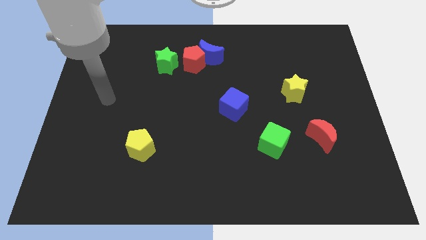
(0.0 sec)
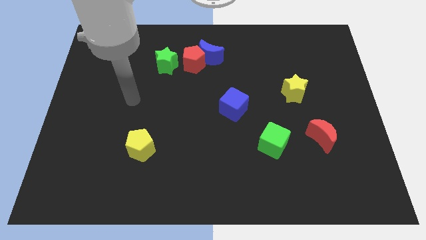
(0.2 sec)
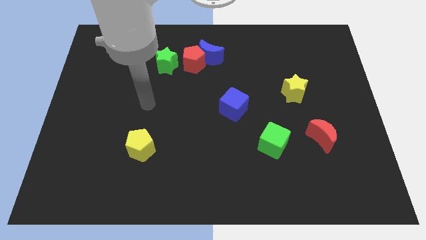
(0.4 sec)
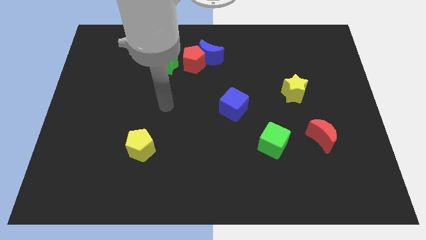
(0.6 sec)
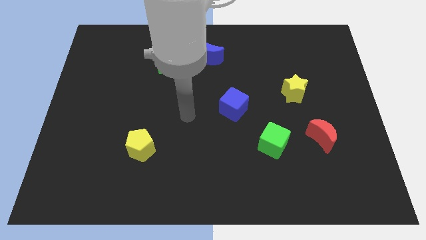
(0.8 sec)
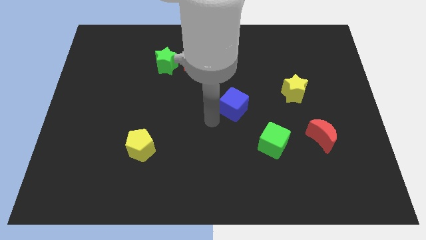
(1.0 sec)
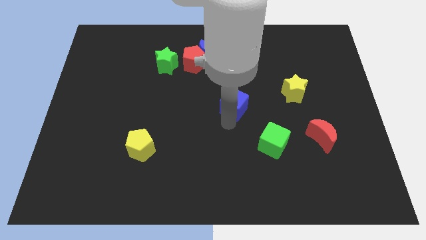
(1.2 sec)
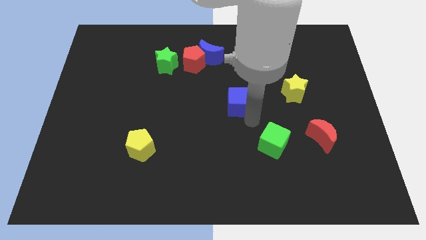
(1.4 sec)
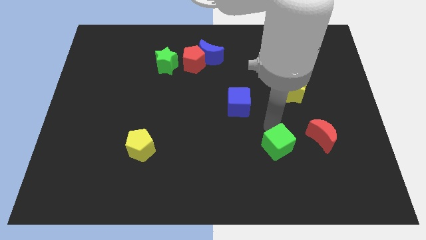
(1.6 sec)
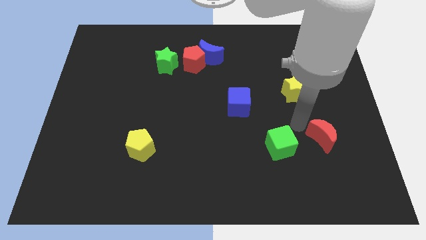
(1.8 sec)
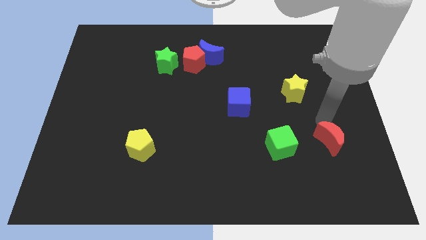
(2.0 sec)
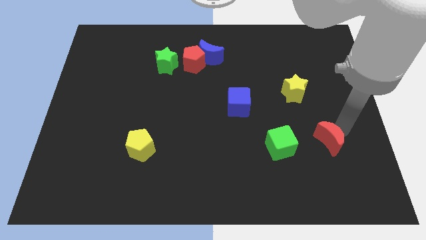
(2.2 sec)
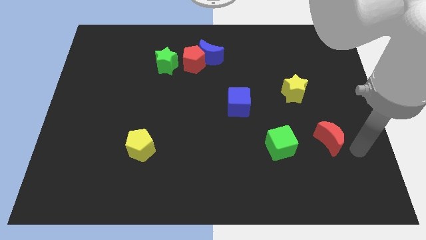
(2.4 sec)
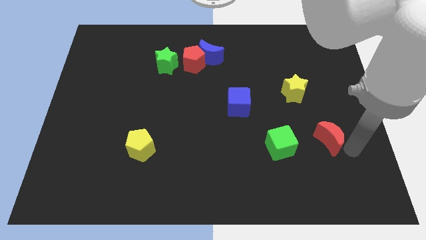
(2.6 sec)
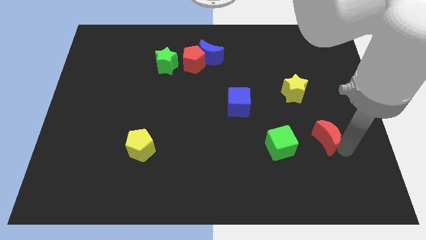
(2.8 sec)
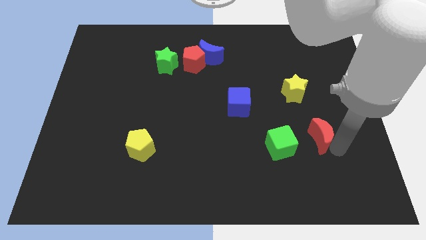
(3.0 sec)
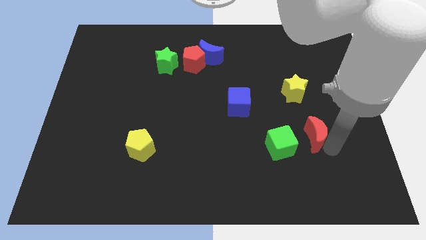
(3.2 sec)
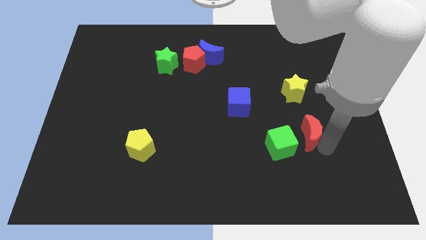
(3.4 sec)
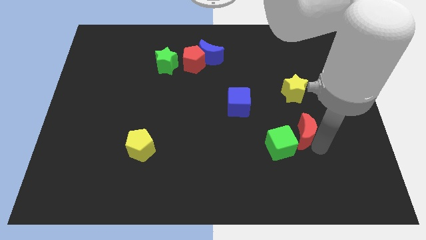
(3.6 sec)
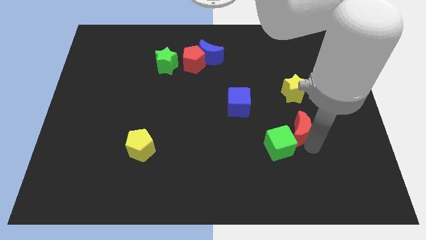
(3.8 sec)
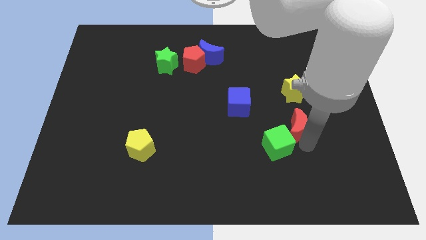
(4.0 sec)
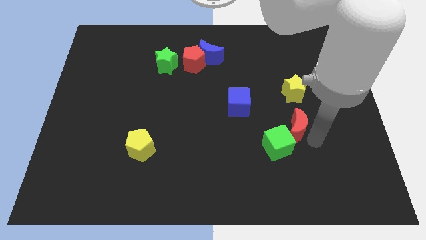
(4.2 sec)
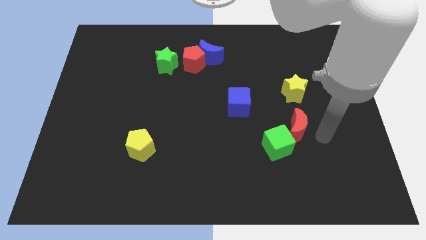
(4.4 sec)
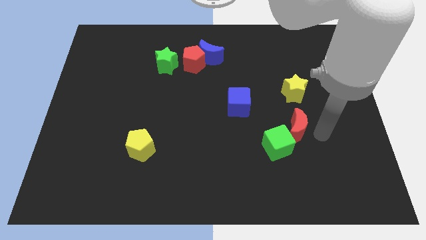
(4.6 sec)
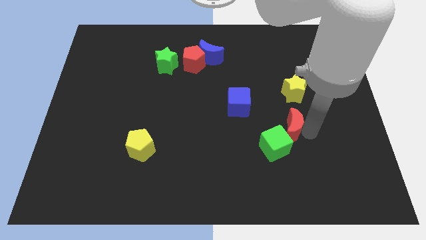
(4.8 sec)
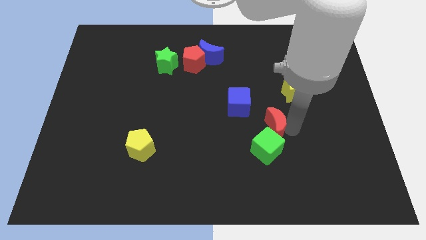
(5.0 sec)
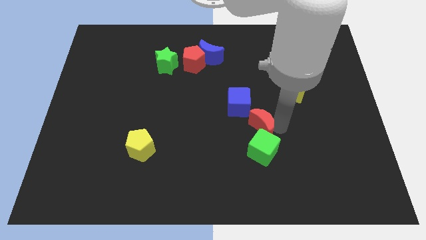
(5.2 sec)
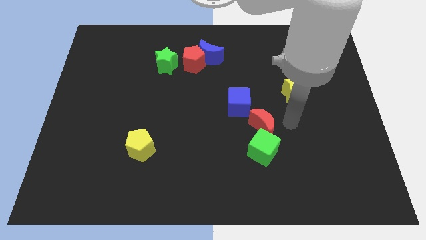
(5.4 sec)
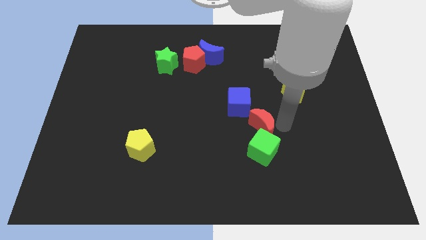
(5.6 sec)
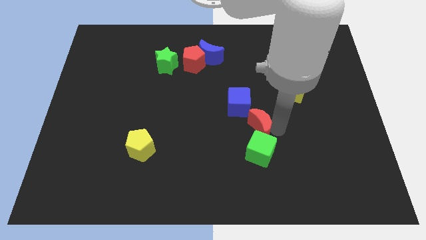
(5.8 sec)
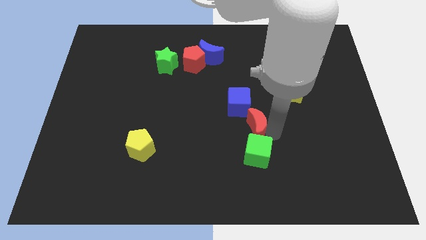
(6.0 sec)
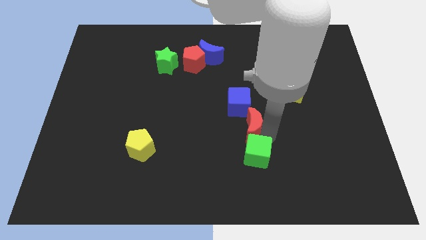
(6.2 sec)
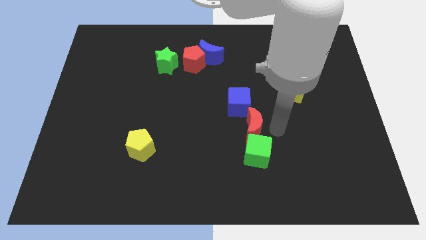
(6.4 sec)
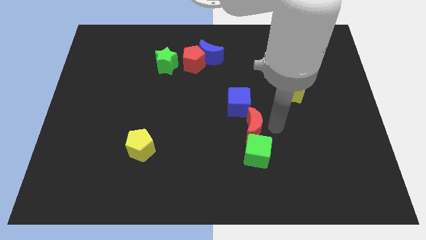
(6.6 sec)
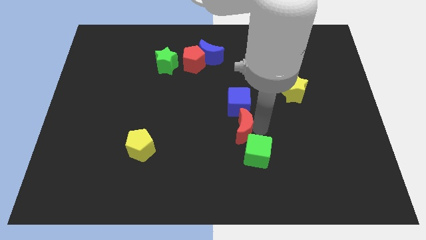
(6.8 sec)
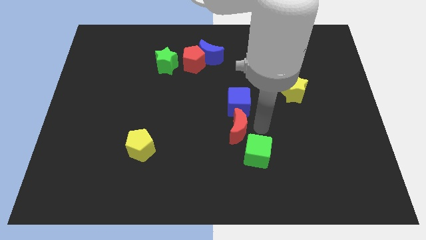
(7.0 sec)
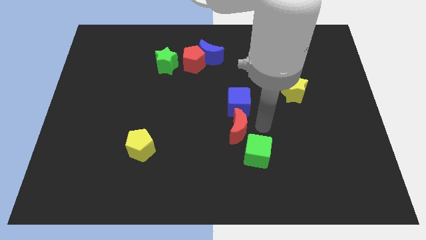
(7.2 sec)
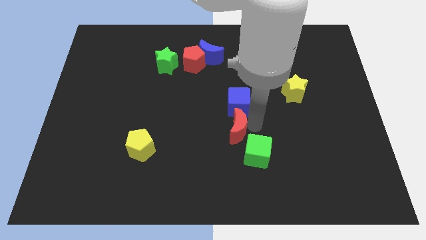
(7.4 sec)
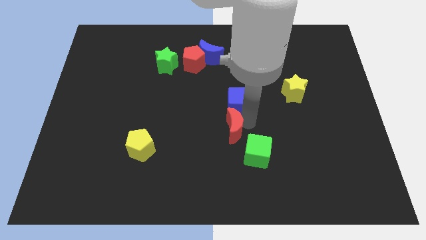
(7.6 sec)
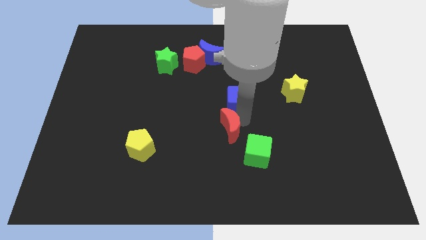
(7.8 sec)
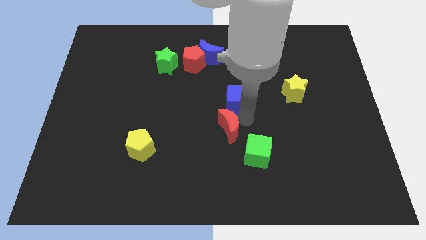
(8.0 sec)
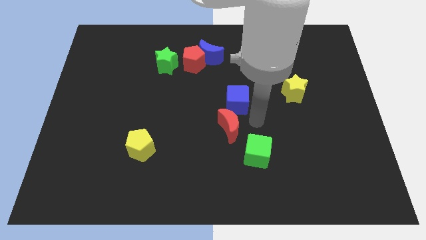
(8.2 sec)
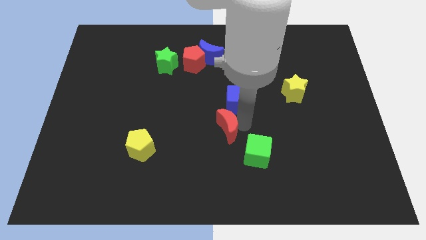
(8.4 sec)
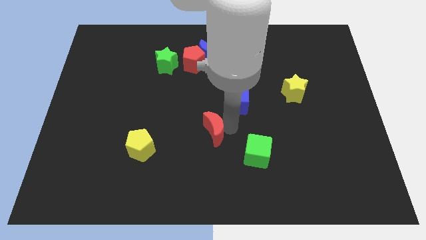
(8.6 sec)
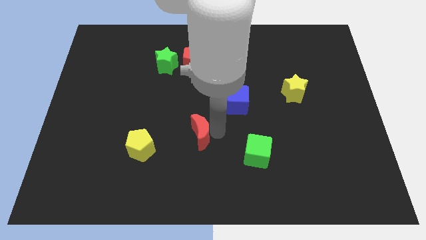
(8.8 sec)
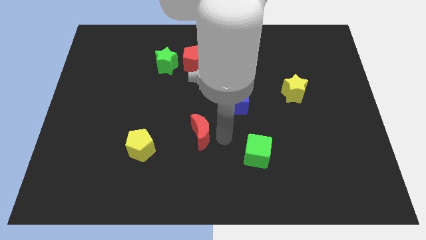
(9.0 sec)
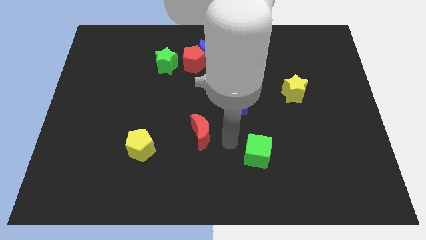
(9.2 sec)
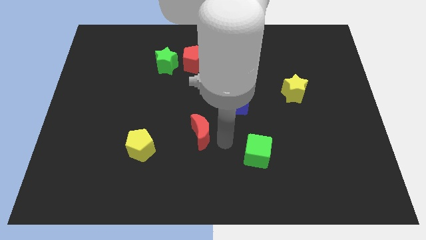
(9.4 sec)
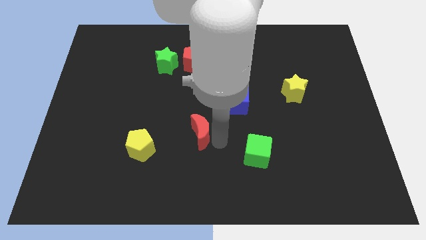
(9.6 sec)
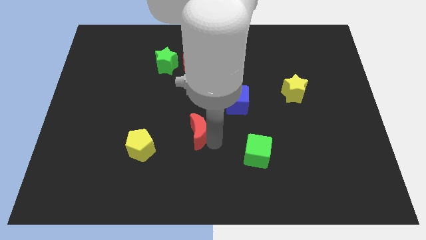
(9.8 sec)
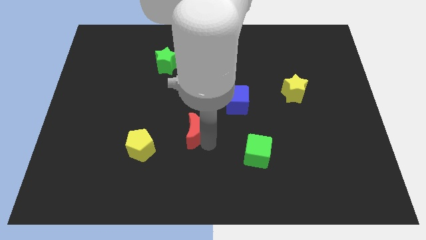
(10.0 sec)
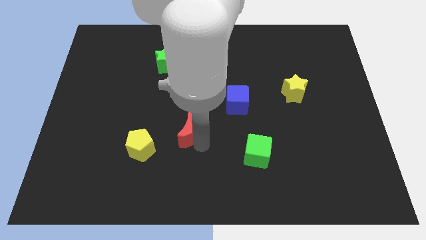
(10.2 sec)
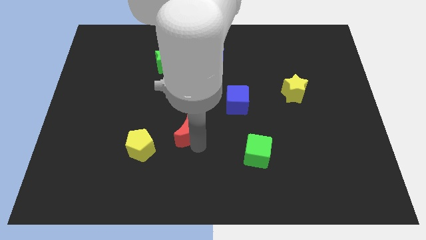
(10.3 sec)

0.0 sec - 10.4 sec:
slide the red moon to the top right side of the yellow pentagon

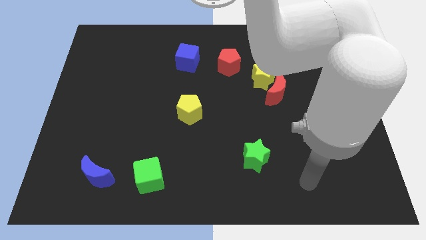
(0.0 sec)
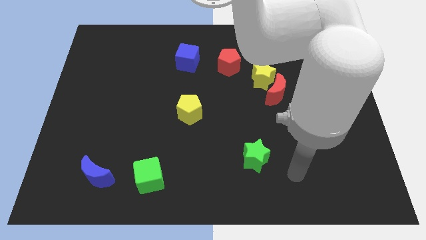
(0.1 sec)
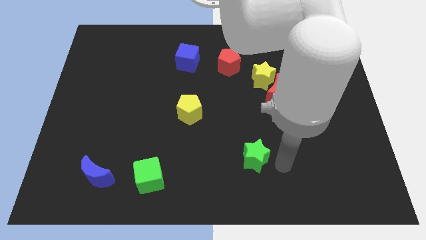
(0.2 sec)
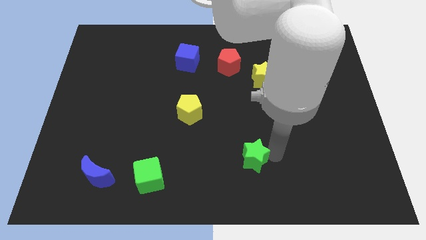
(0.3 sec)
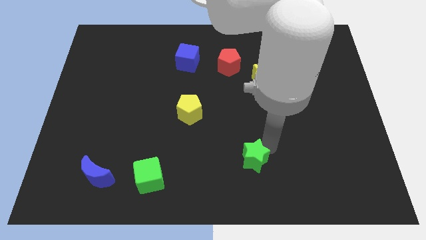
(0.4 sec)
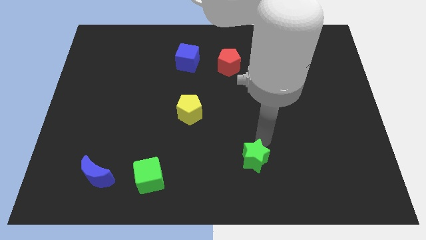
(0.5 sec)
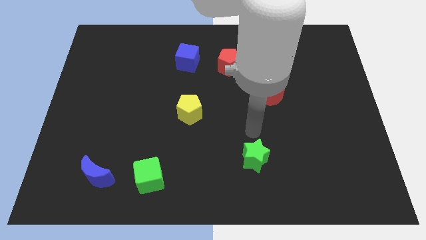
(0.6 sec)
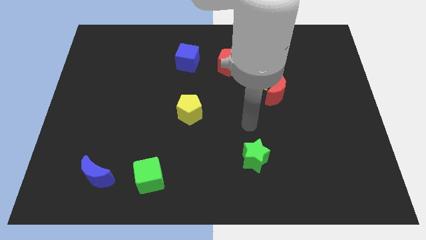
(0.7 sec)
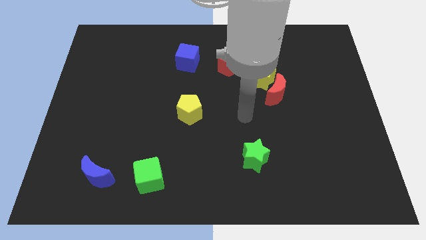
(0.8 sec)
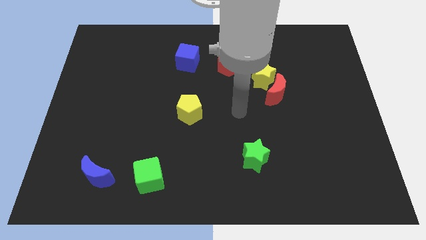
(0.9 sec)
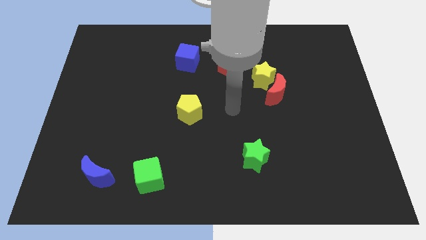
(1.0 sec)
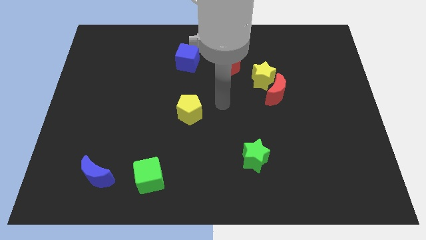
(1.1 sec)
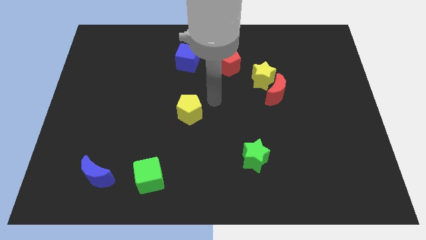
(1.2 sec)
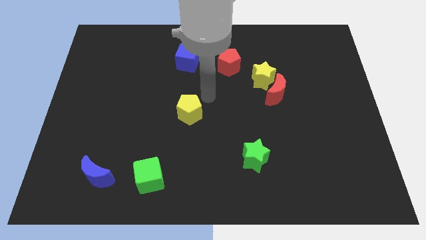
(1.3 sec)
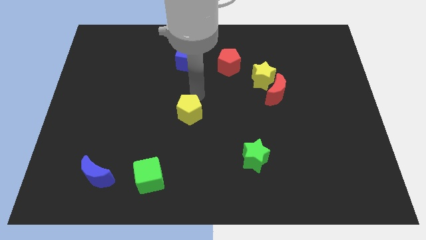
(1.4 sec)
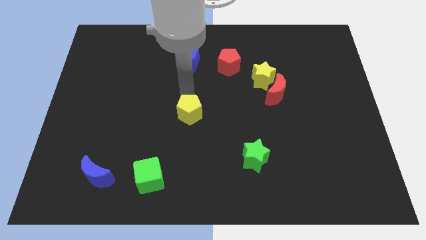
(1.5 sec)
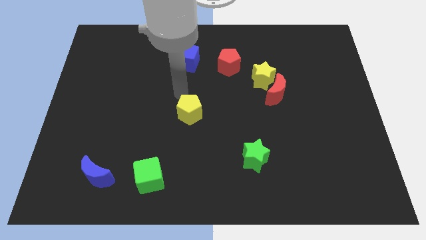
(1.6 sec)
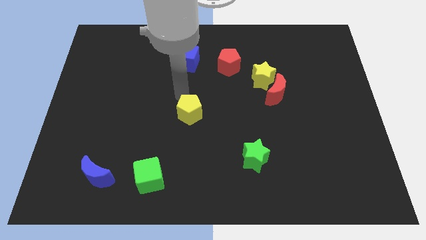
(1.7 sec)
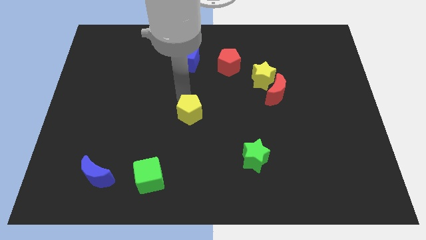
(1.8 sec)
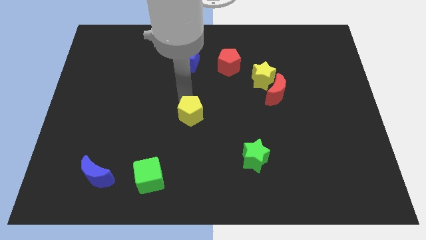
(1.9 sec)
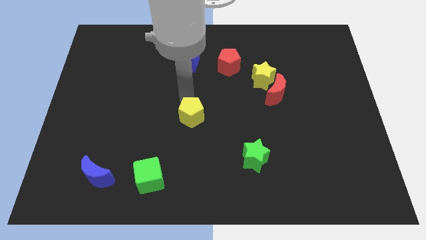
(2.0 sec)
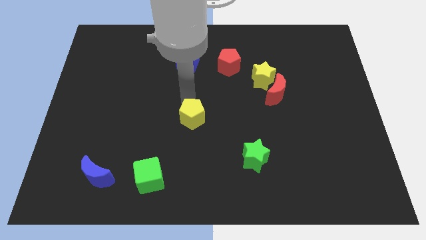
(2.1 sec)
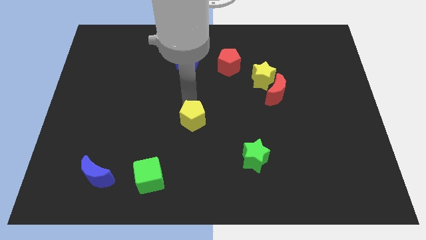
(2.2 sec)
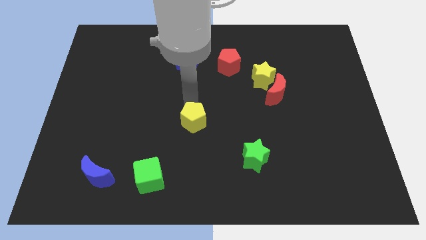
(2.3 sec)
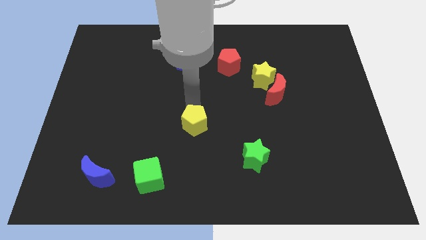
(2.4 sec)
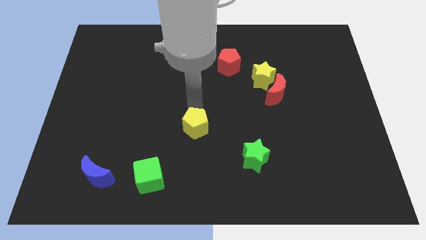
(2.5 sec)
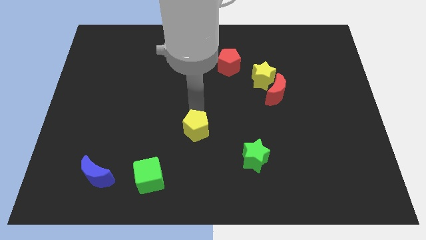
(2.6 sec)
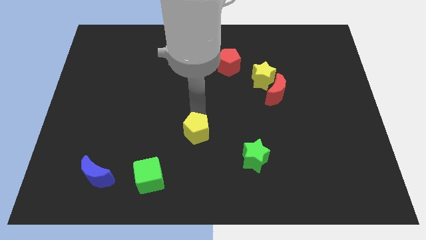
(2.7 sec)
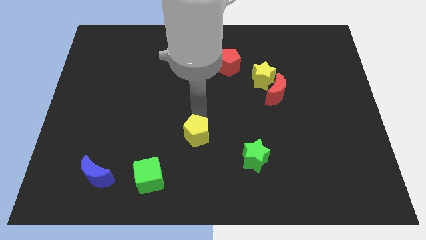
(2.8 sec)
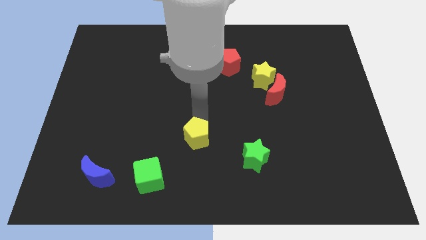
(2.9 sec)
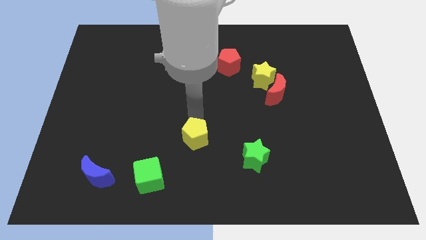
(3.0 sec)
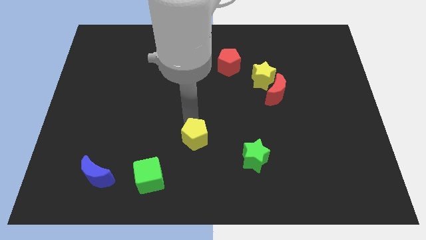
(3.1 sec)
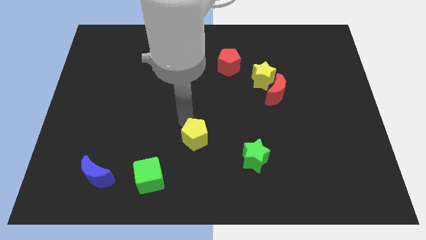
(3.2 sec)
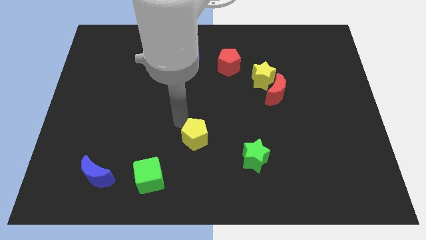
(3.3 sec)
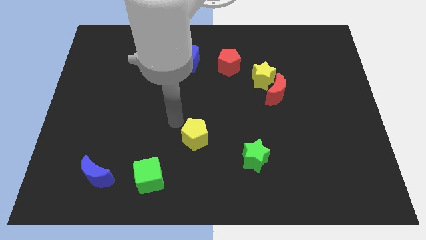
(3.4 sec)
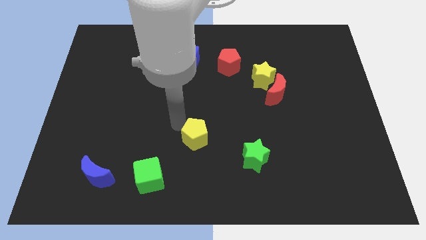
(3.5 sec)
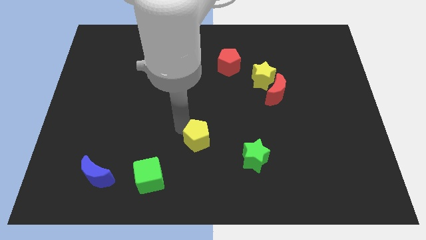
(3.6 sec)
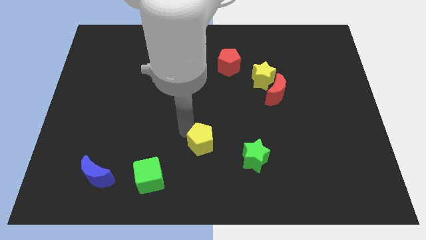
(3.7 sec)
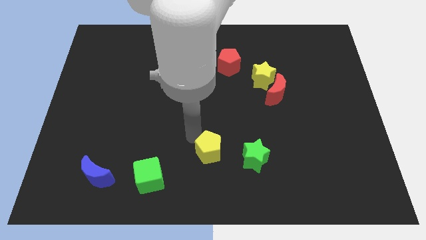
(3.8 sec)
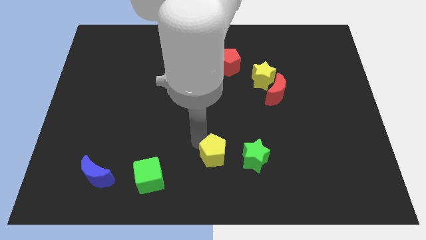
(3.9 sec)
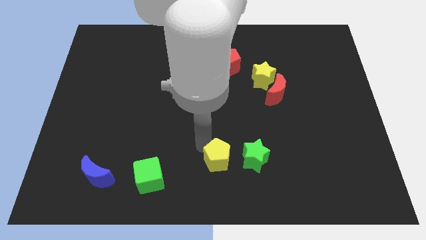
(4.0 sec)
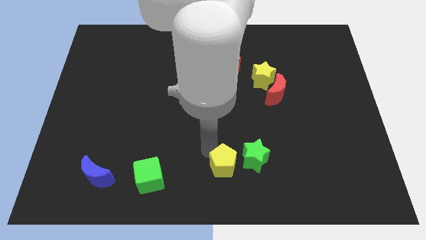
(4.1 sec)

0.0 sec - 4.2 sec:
move the yellow pentagon to the bottom left of the green star
